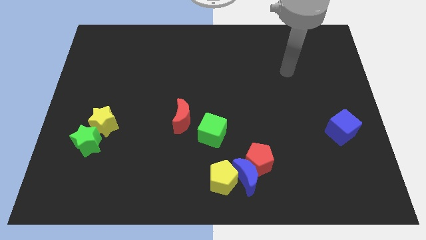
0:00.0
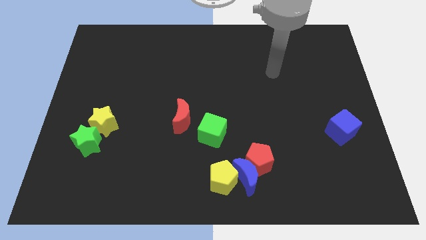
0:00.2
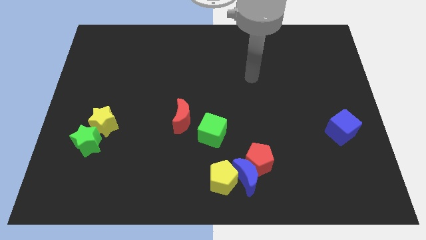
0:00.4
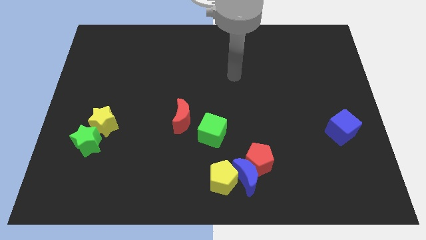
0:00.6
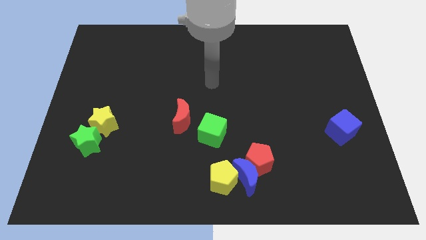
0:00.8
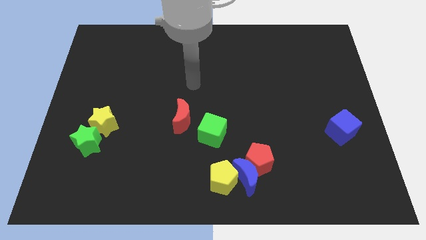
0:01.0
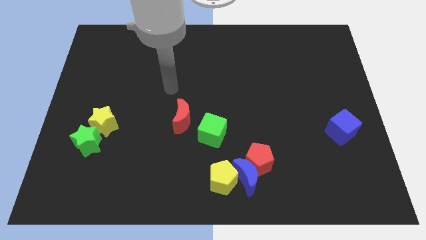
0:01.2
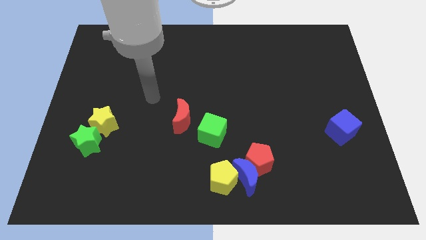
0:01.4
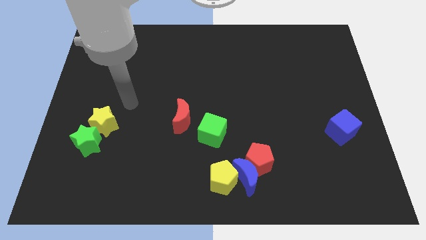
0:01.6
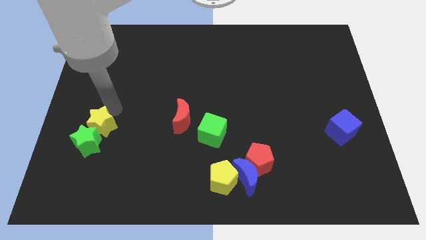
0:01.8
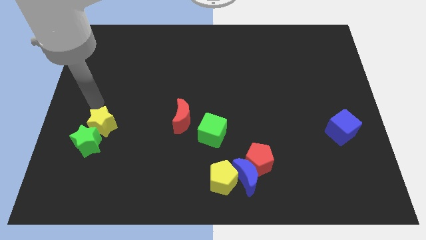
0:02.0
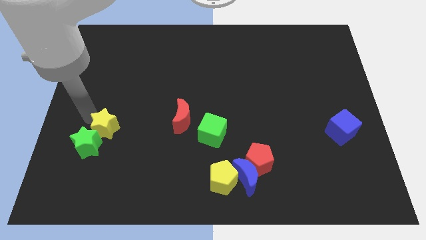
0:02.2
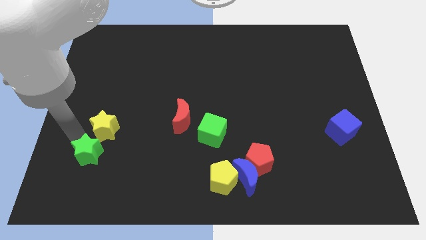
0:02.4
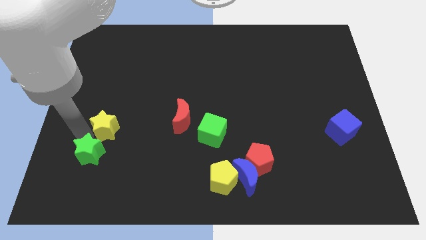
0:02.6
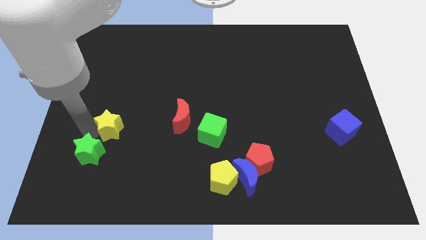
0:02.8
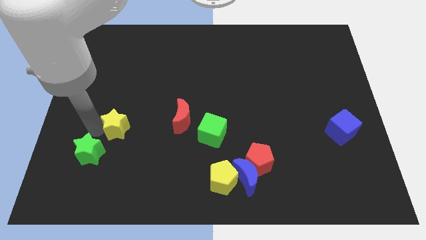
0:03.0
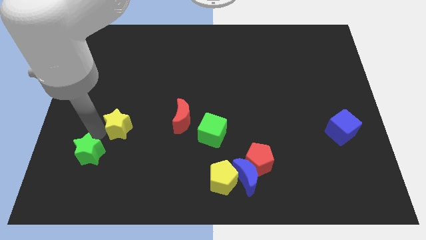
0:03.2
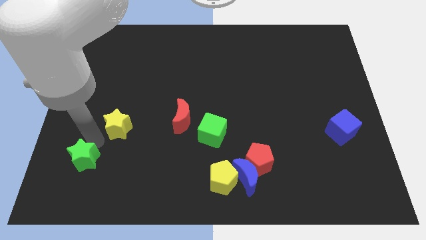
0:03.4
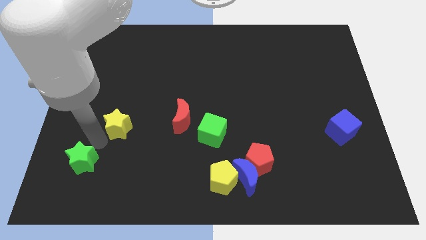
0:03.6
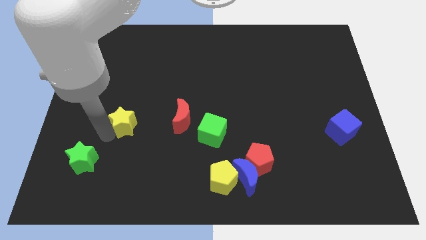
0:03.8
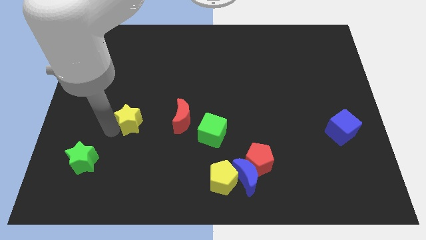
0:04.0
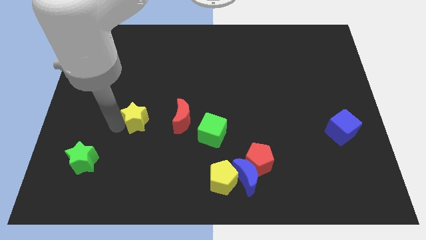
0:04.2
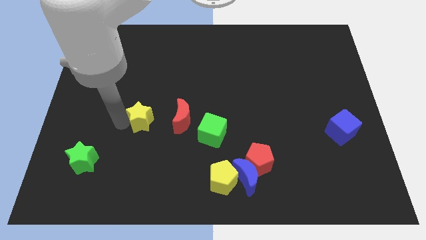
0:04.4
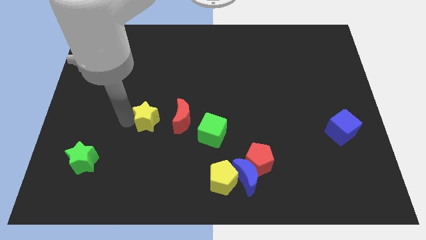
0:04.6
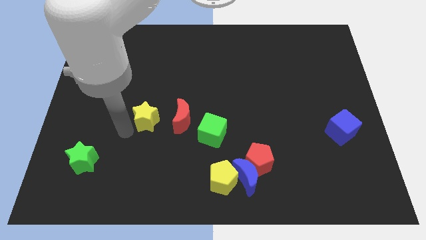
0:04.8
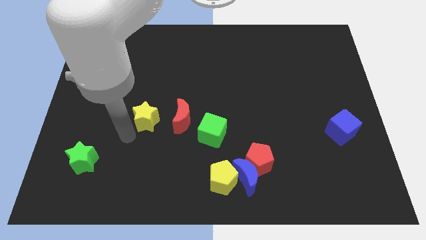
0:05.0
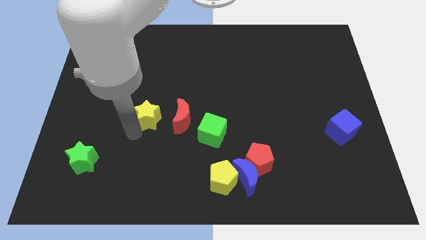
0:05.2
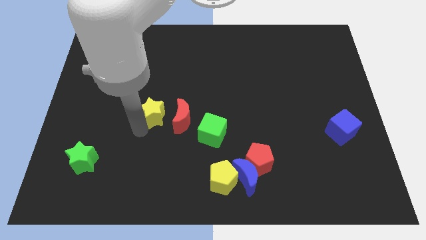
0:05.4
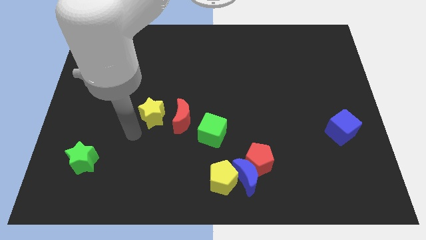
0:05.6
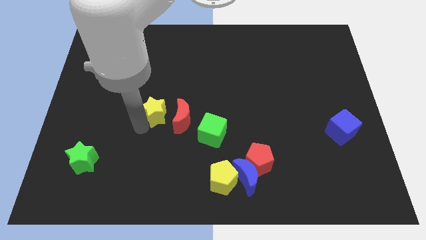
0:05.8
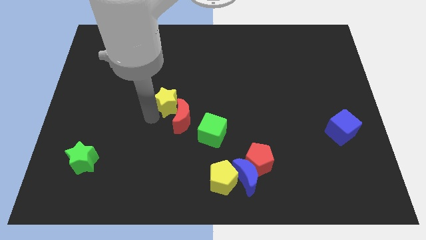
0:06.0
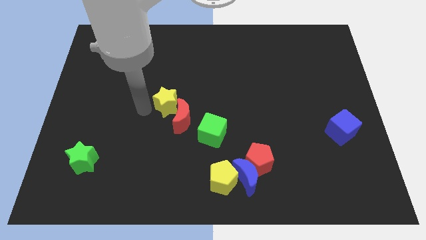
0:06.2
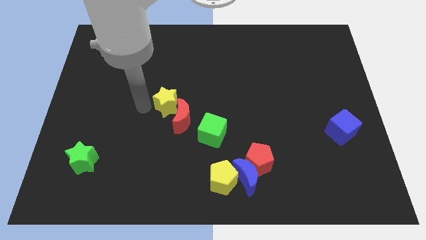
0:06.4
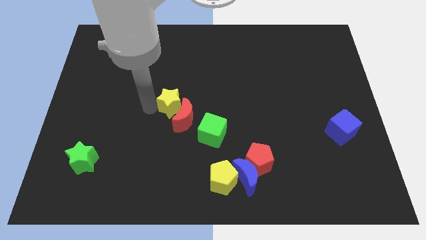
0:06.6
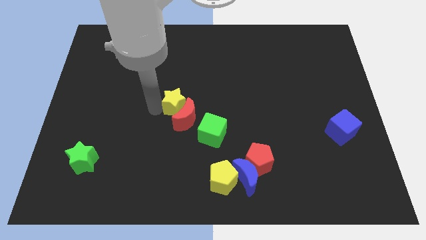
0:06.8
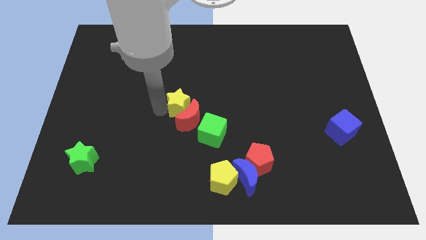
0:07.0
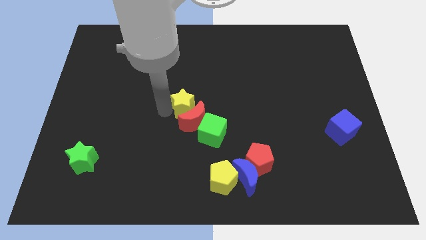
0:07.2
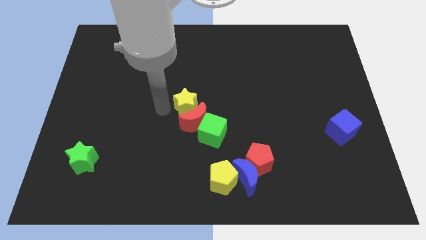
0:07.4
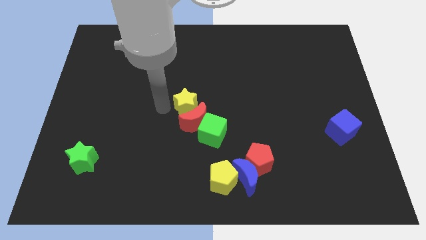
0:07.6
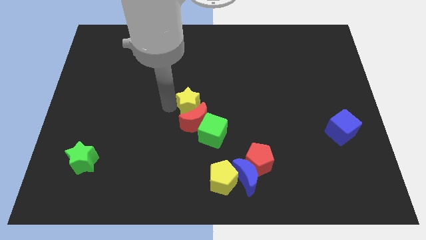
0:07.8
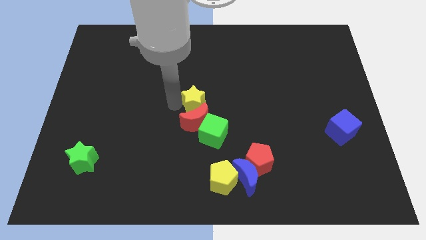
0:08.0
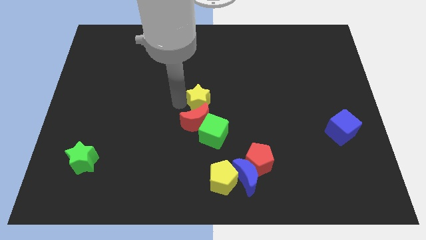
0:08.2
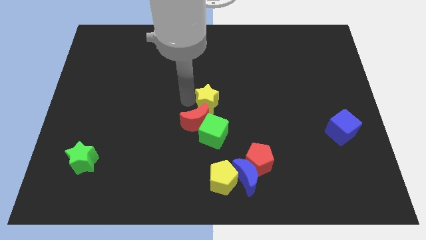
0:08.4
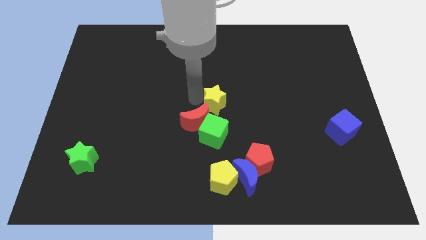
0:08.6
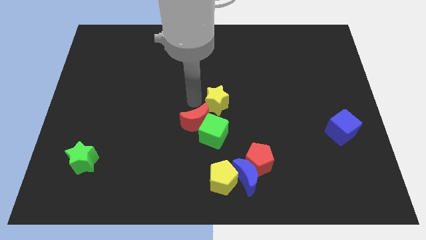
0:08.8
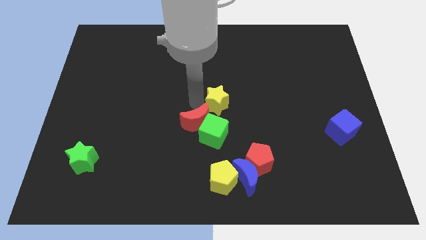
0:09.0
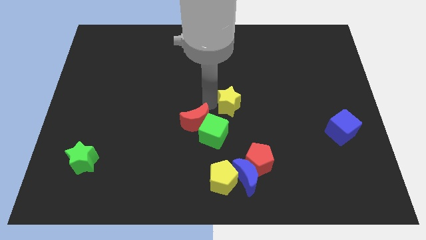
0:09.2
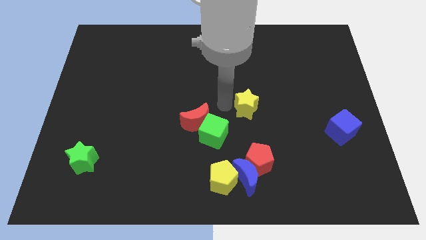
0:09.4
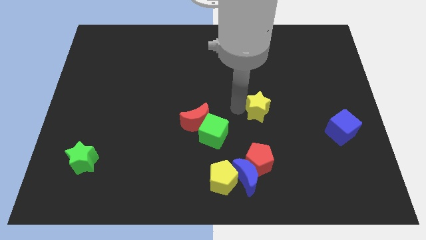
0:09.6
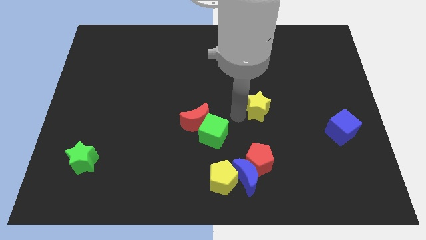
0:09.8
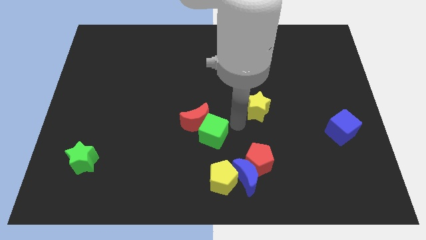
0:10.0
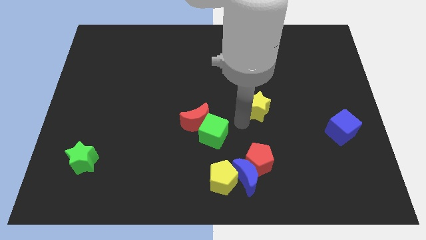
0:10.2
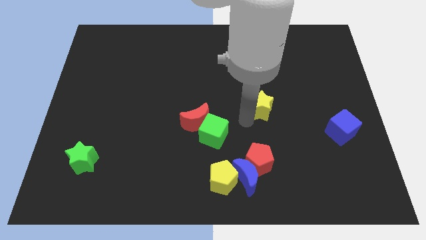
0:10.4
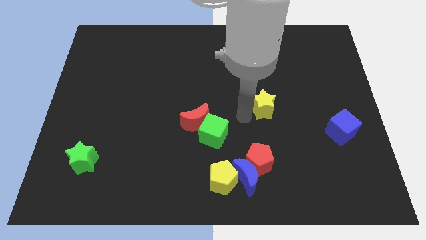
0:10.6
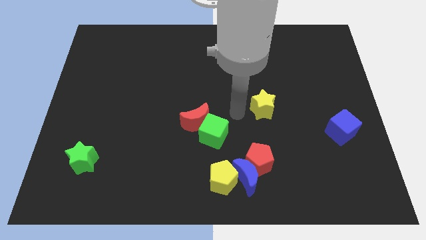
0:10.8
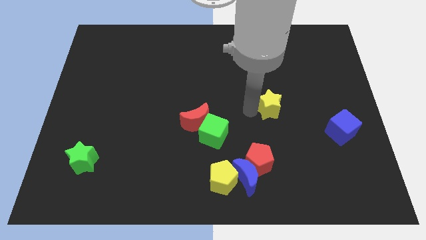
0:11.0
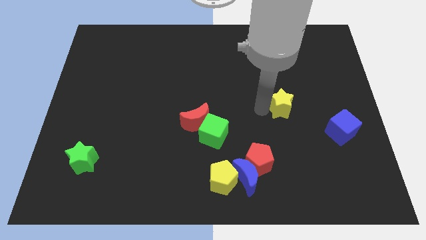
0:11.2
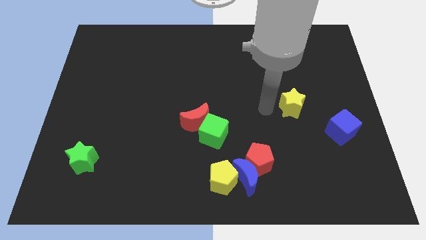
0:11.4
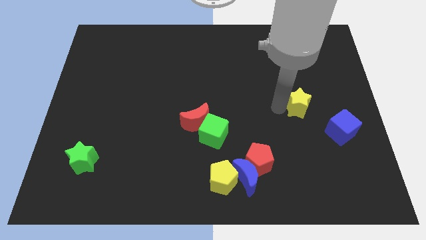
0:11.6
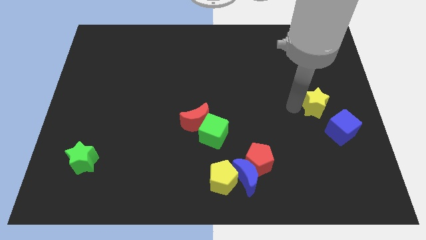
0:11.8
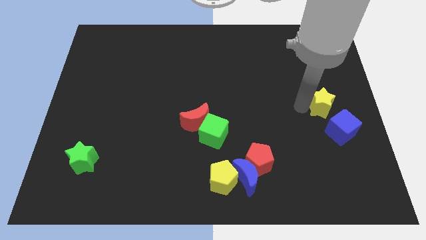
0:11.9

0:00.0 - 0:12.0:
push the yellow star to the center right
